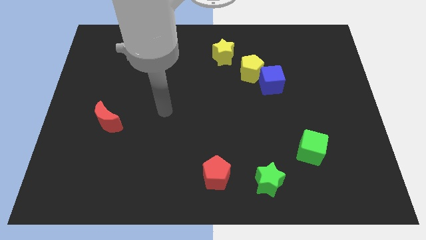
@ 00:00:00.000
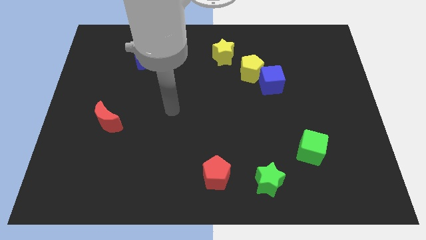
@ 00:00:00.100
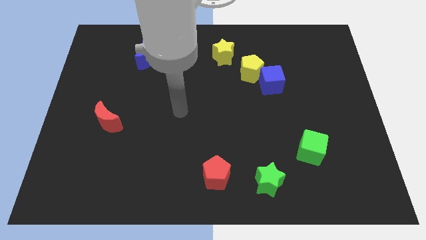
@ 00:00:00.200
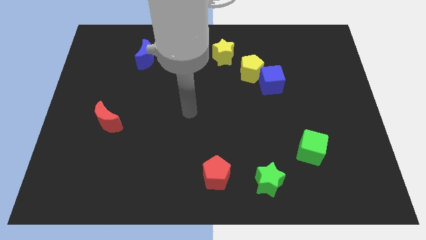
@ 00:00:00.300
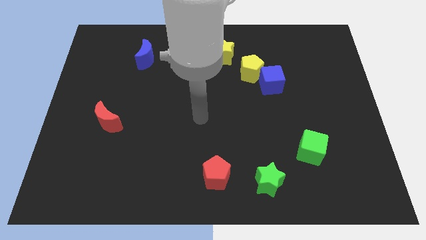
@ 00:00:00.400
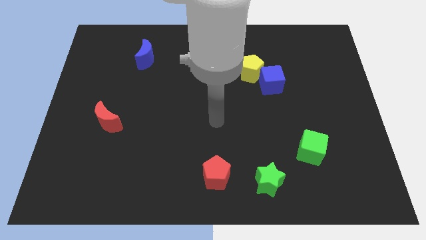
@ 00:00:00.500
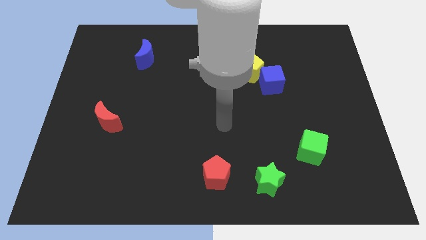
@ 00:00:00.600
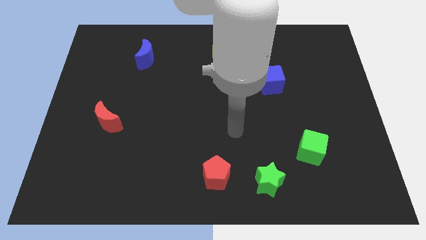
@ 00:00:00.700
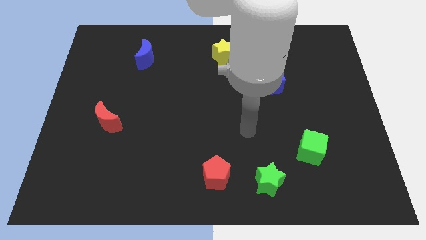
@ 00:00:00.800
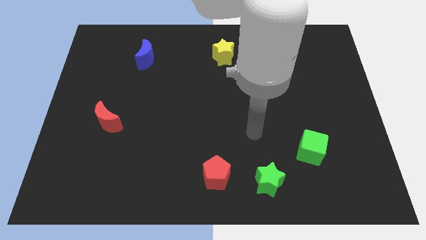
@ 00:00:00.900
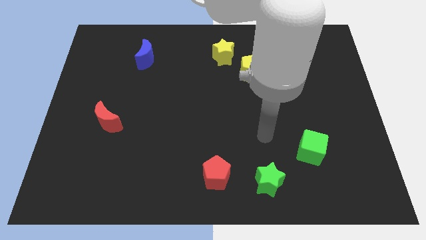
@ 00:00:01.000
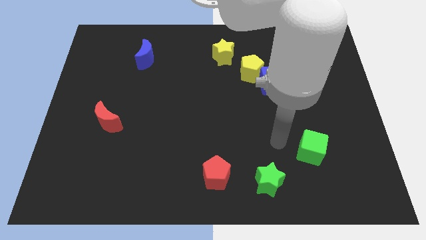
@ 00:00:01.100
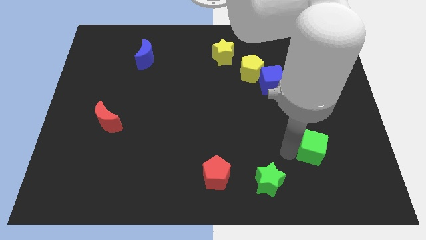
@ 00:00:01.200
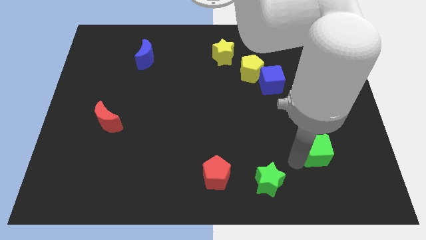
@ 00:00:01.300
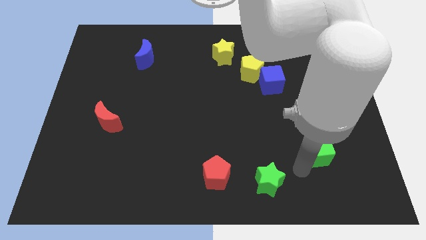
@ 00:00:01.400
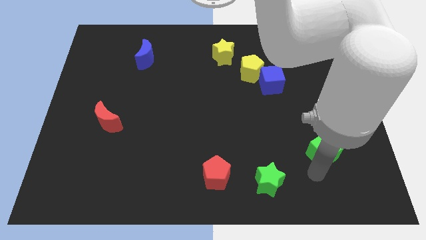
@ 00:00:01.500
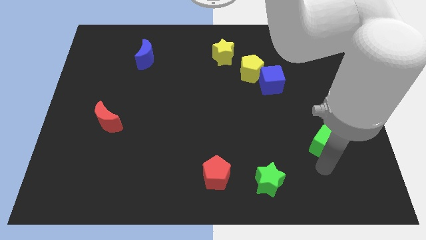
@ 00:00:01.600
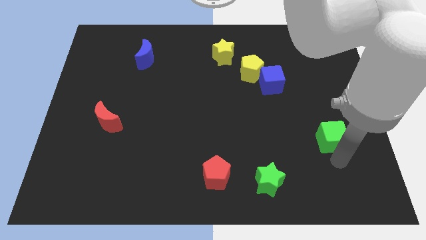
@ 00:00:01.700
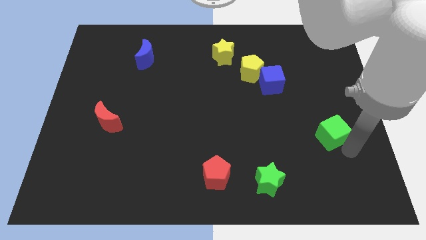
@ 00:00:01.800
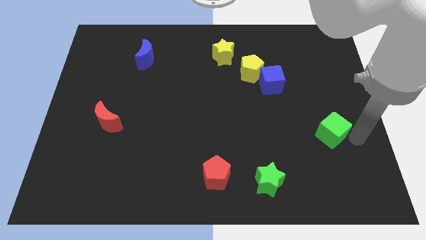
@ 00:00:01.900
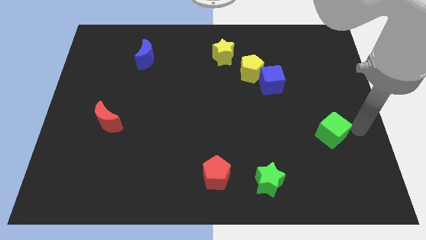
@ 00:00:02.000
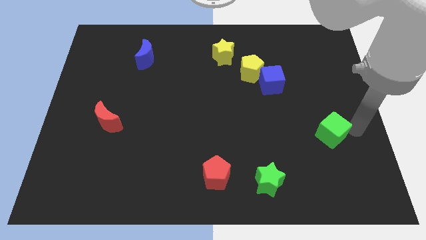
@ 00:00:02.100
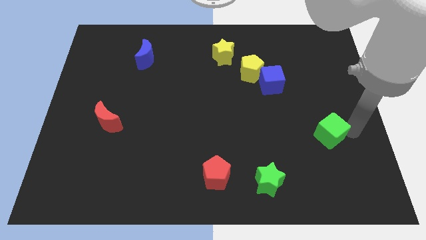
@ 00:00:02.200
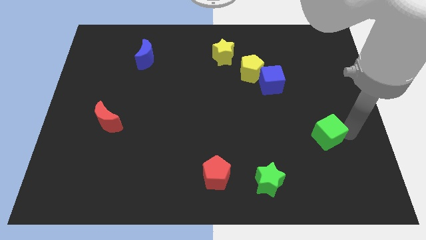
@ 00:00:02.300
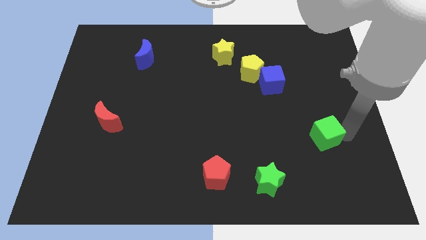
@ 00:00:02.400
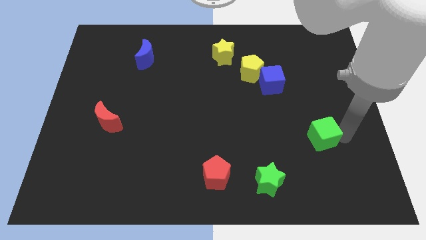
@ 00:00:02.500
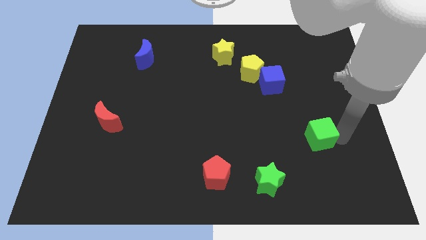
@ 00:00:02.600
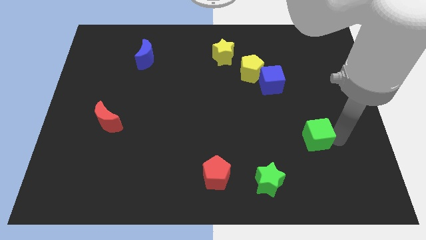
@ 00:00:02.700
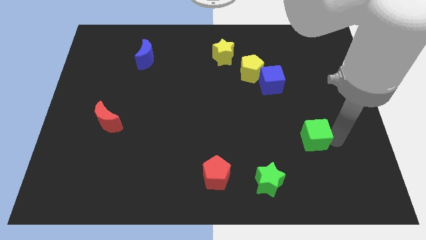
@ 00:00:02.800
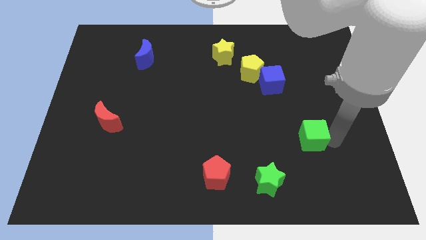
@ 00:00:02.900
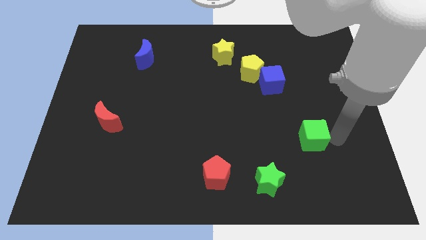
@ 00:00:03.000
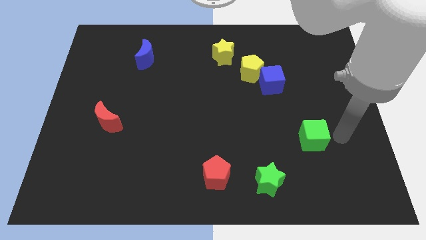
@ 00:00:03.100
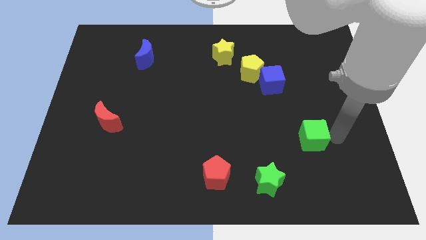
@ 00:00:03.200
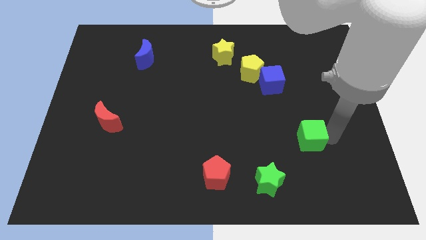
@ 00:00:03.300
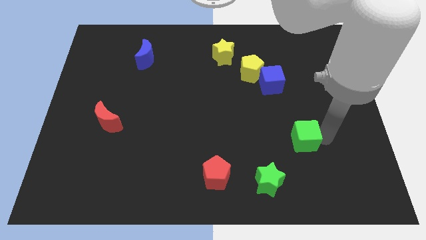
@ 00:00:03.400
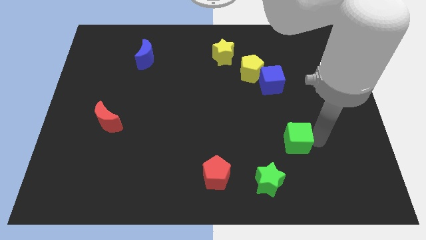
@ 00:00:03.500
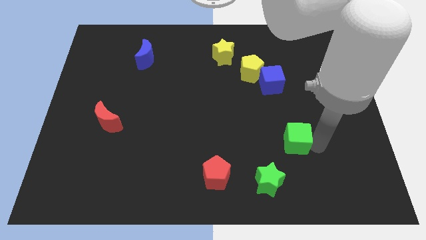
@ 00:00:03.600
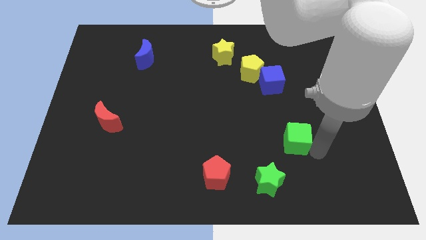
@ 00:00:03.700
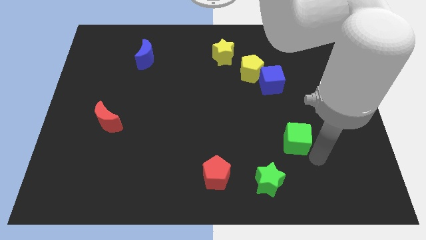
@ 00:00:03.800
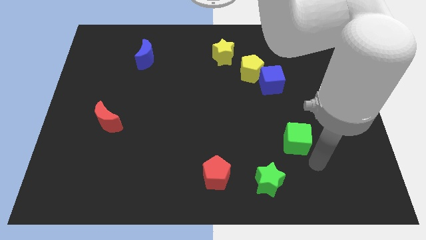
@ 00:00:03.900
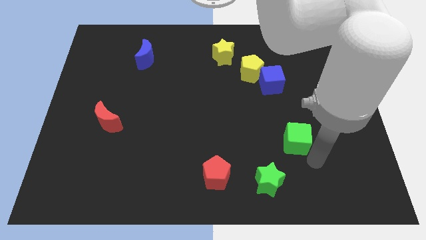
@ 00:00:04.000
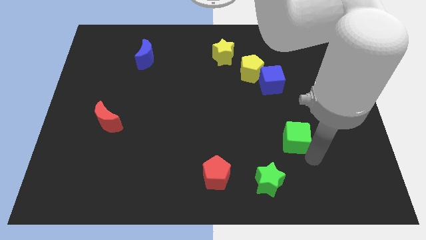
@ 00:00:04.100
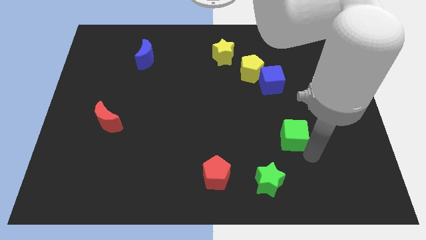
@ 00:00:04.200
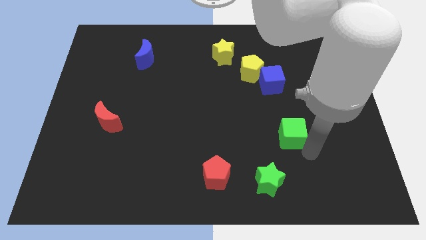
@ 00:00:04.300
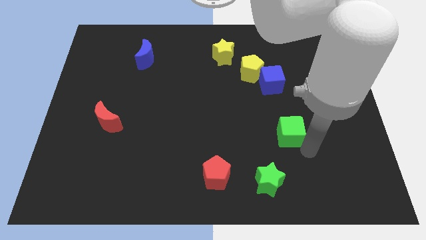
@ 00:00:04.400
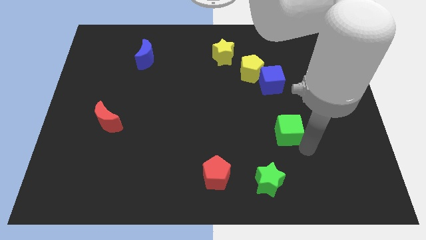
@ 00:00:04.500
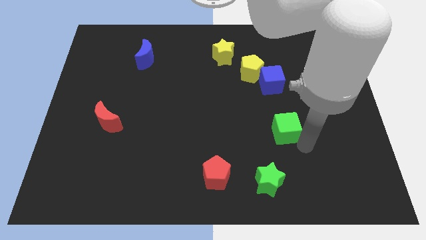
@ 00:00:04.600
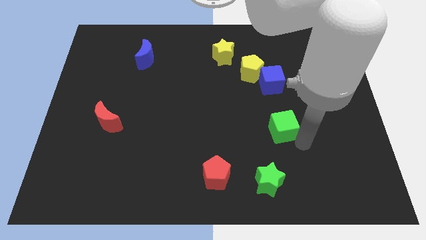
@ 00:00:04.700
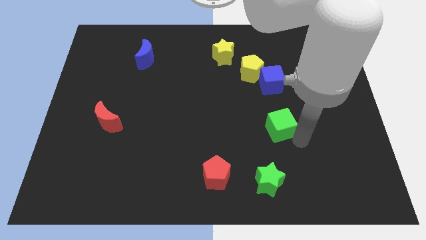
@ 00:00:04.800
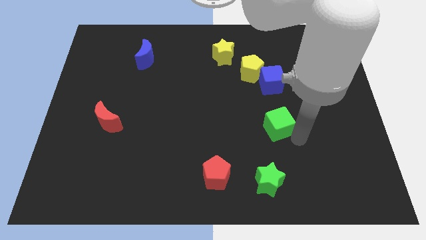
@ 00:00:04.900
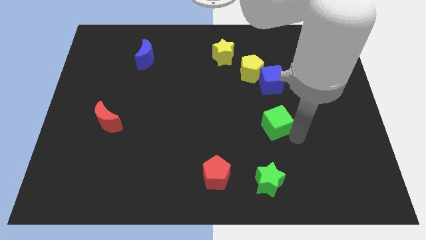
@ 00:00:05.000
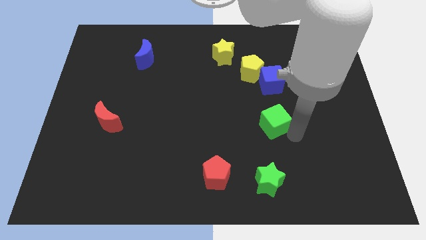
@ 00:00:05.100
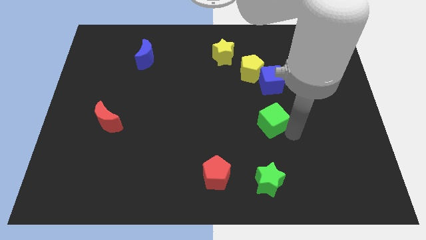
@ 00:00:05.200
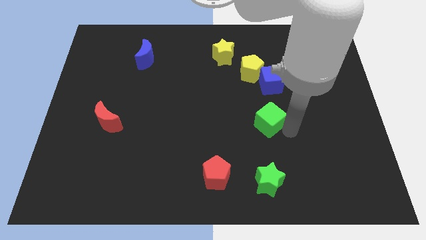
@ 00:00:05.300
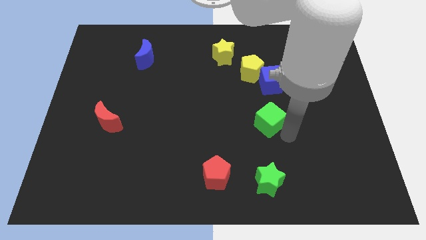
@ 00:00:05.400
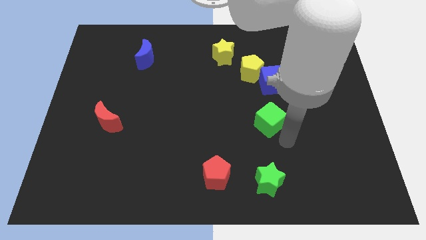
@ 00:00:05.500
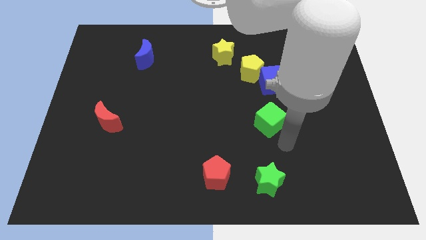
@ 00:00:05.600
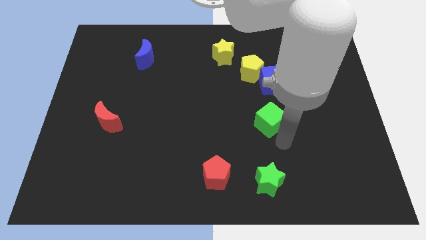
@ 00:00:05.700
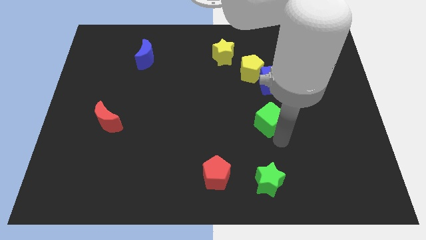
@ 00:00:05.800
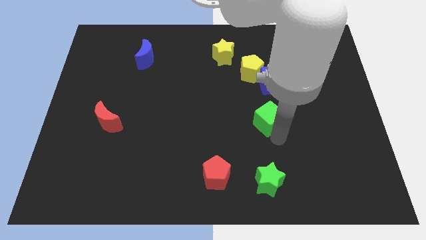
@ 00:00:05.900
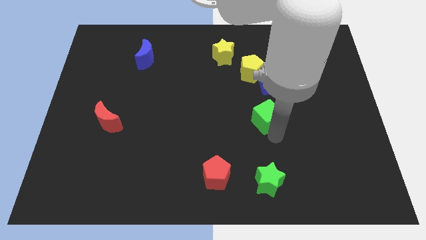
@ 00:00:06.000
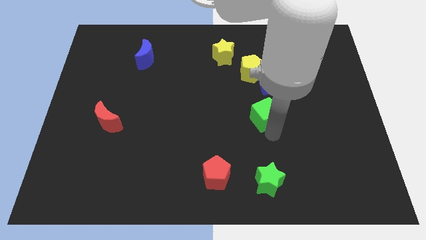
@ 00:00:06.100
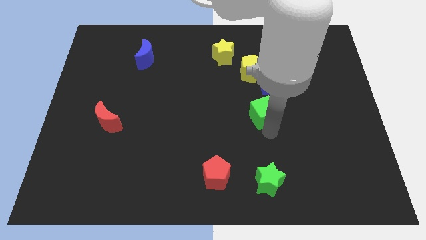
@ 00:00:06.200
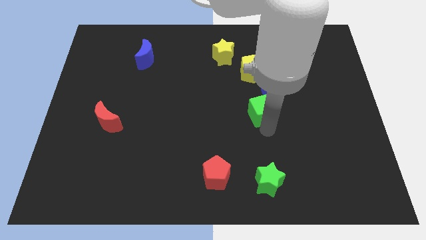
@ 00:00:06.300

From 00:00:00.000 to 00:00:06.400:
push the green cube to the bottom left of the blue cube
